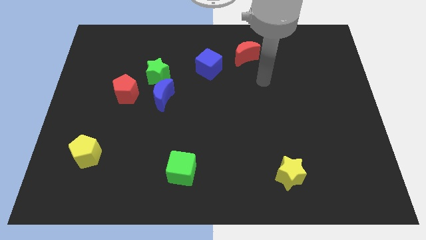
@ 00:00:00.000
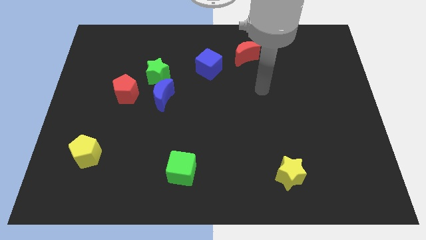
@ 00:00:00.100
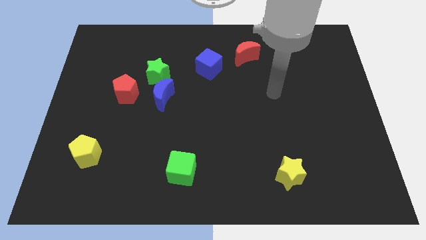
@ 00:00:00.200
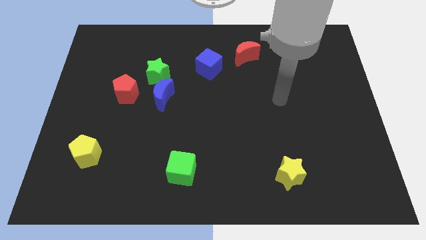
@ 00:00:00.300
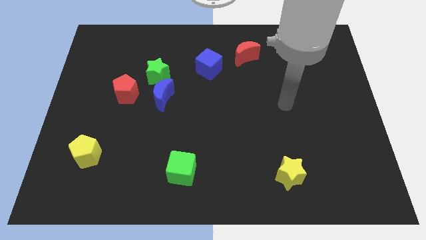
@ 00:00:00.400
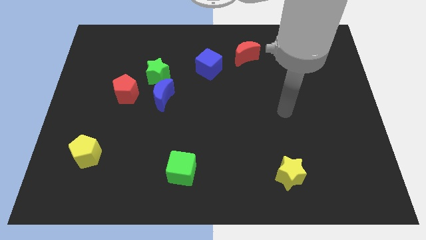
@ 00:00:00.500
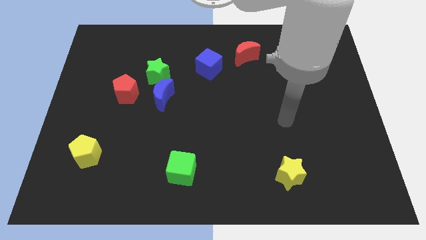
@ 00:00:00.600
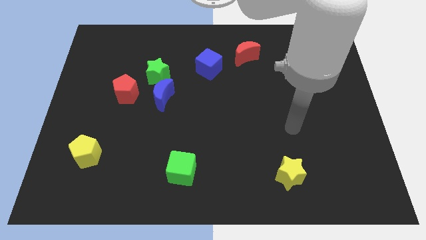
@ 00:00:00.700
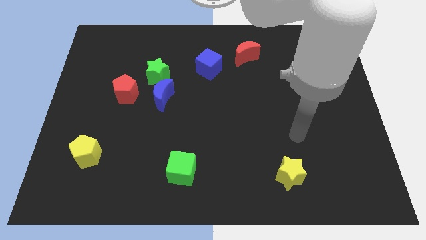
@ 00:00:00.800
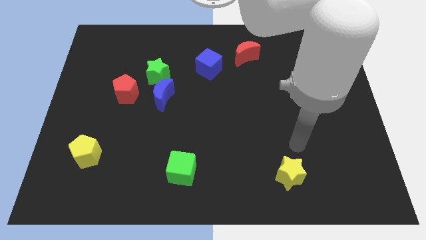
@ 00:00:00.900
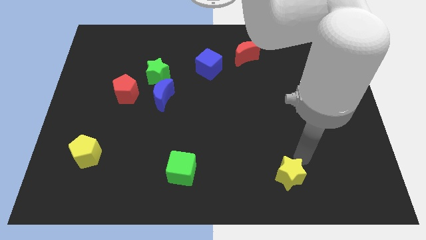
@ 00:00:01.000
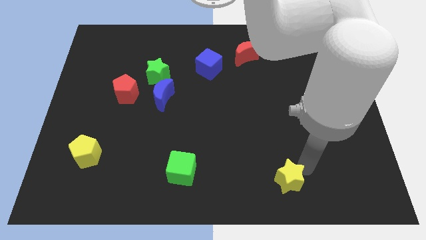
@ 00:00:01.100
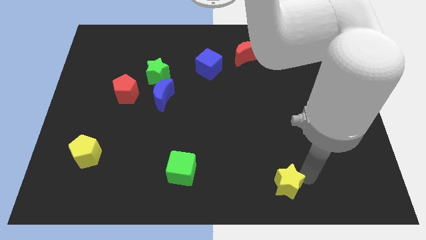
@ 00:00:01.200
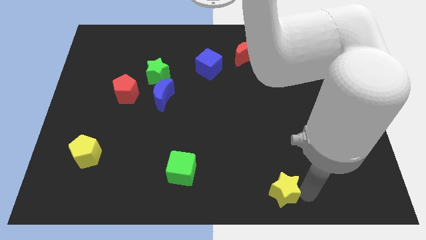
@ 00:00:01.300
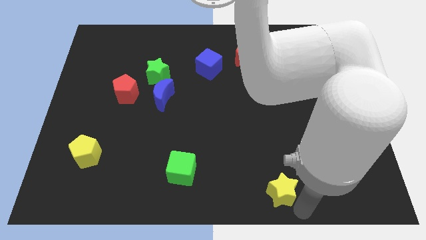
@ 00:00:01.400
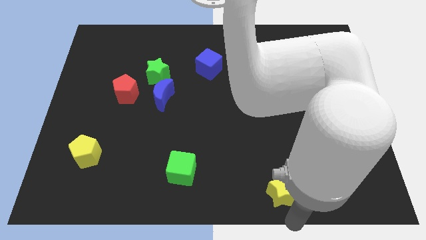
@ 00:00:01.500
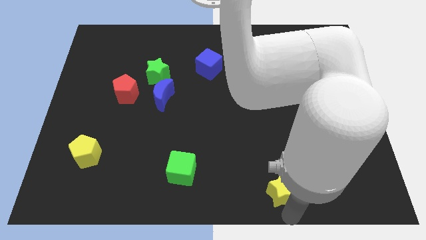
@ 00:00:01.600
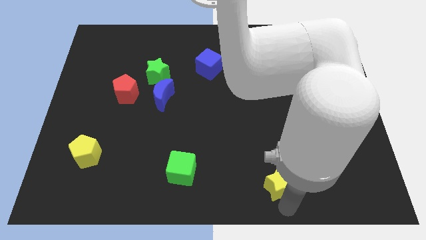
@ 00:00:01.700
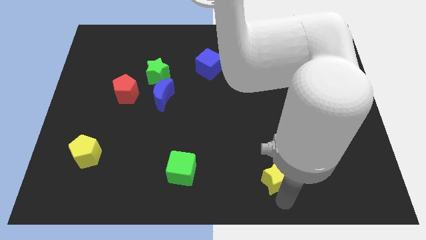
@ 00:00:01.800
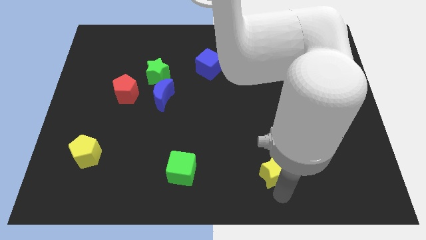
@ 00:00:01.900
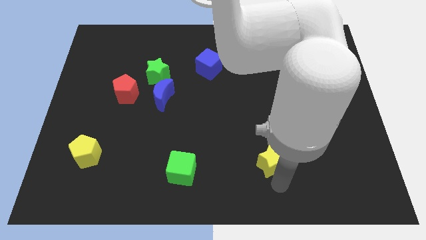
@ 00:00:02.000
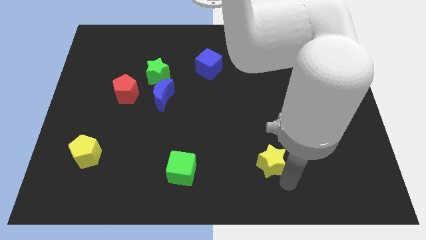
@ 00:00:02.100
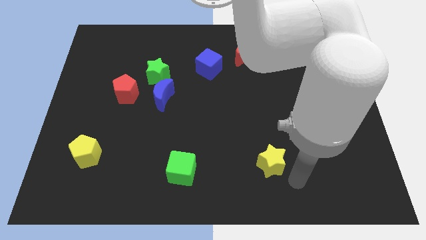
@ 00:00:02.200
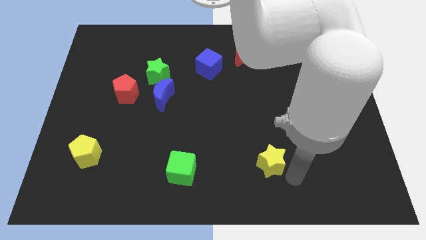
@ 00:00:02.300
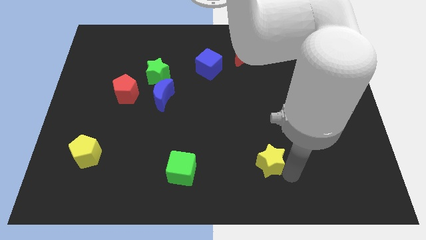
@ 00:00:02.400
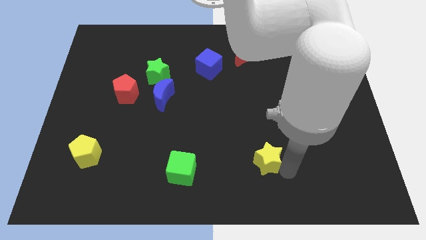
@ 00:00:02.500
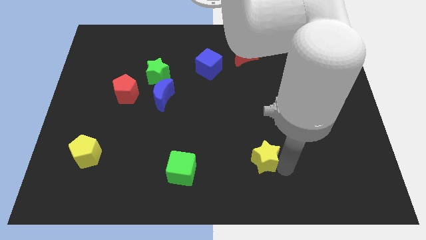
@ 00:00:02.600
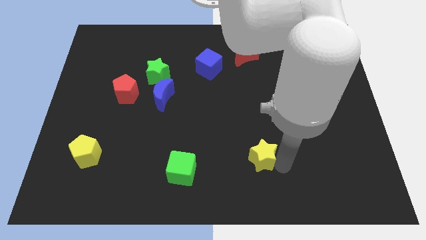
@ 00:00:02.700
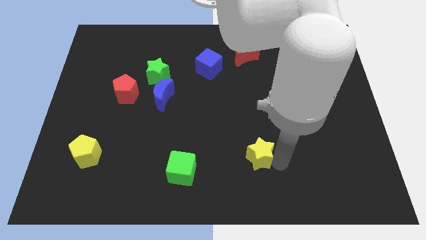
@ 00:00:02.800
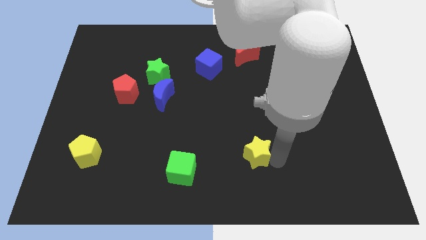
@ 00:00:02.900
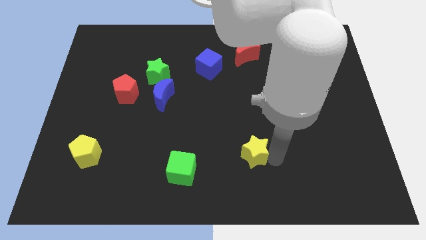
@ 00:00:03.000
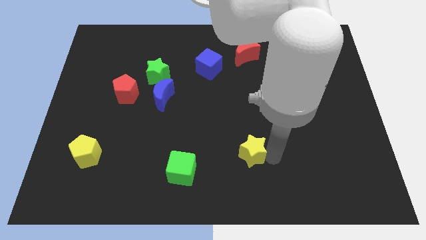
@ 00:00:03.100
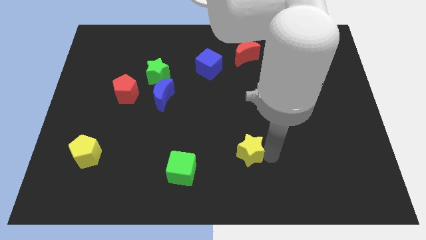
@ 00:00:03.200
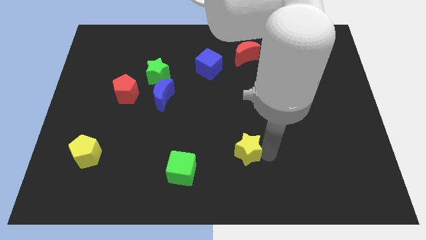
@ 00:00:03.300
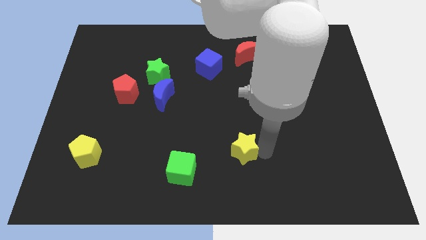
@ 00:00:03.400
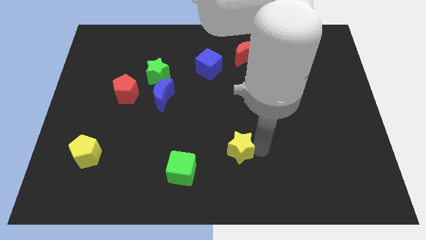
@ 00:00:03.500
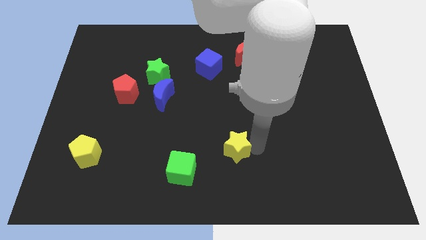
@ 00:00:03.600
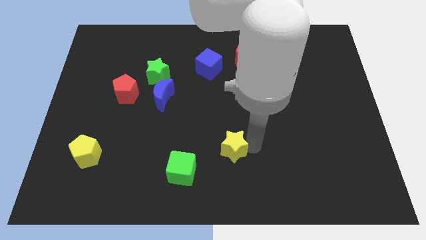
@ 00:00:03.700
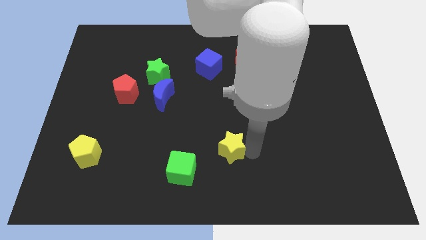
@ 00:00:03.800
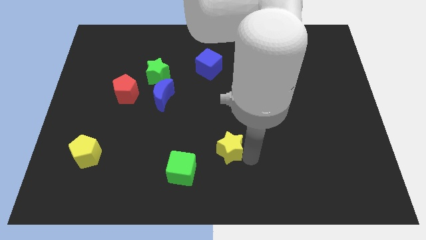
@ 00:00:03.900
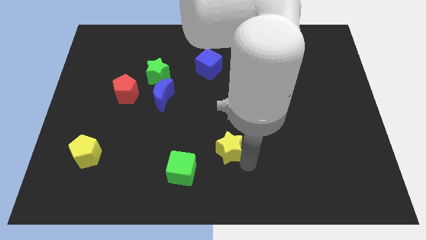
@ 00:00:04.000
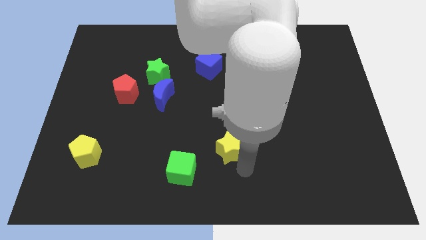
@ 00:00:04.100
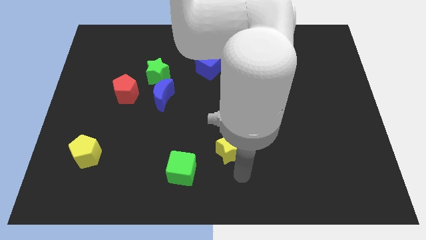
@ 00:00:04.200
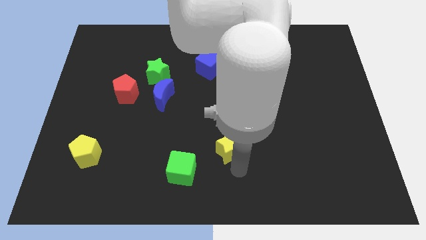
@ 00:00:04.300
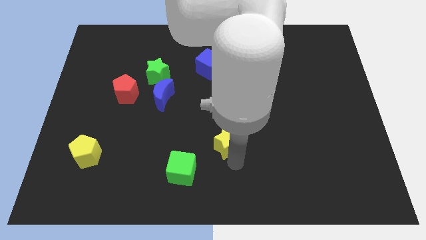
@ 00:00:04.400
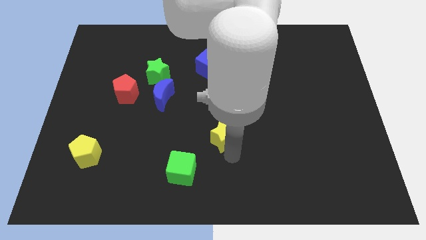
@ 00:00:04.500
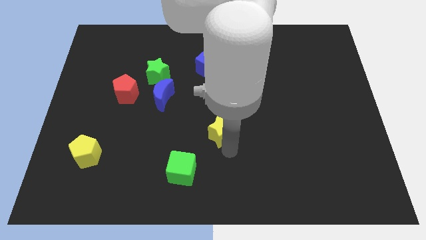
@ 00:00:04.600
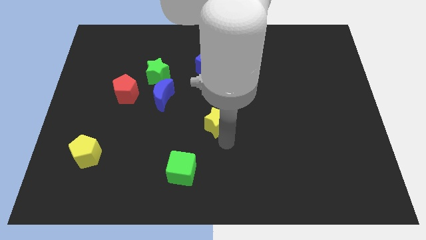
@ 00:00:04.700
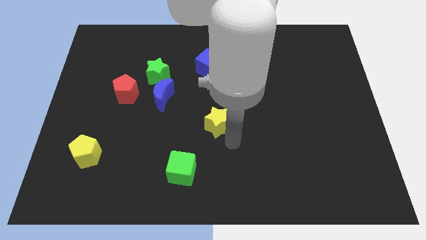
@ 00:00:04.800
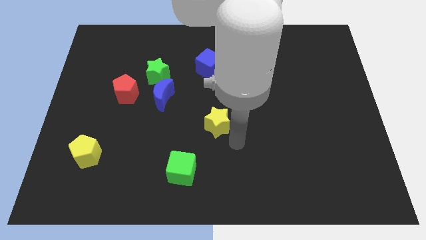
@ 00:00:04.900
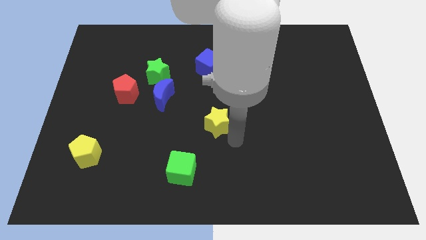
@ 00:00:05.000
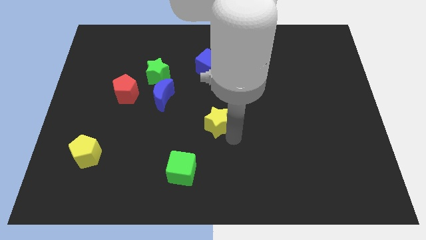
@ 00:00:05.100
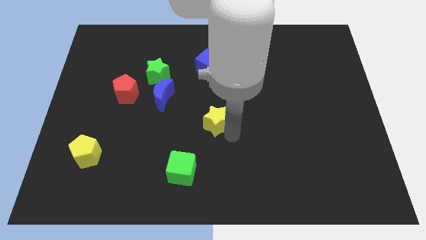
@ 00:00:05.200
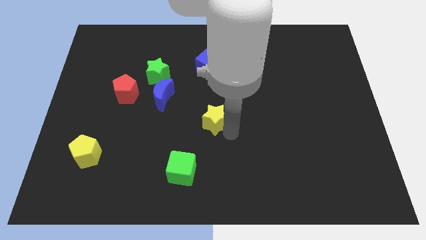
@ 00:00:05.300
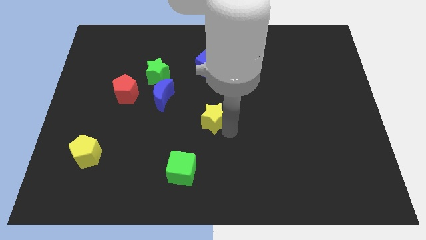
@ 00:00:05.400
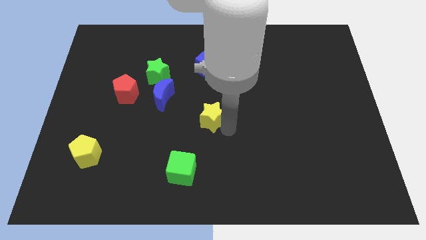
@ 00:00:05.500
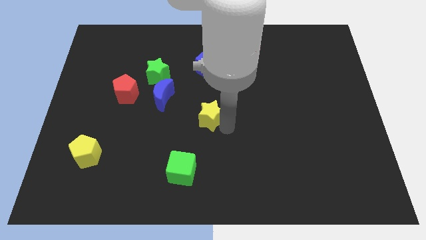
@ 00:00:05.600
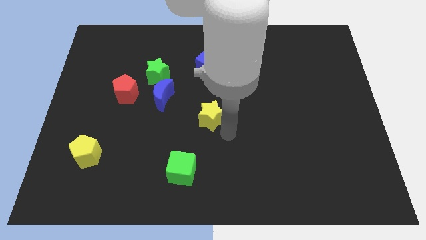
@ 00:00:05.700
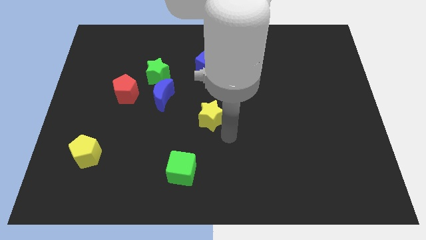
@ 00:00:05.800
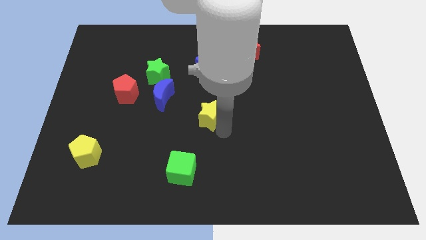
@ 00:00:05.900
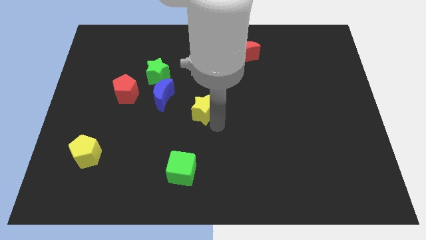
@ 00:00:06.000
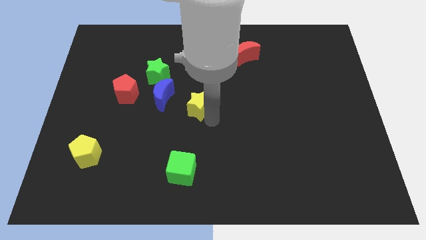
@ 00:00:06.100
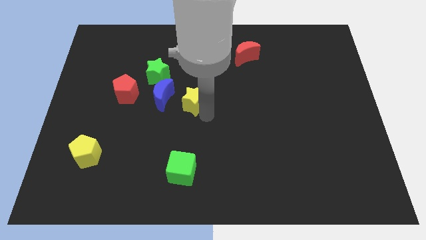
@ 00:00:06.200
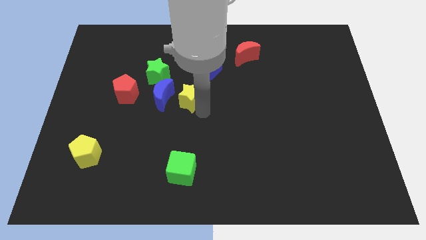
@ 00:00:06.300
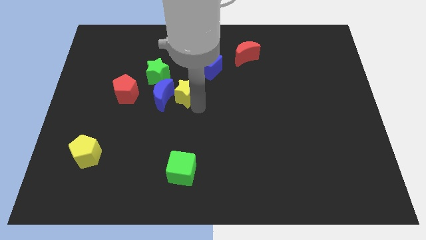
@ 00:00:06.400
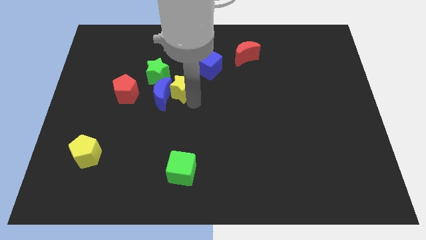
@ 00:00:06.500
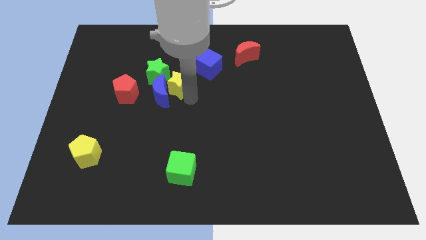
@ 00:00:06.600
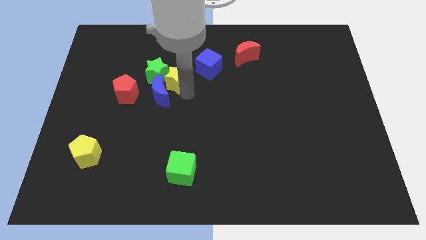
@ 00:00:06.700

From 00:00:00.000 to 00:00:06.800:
put the yellow star to the green star

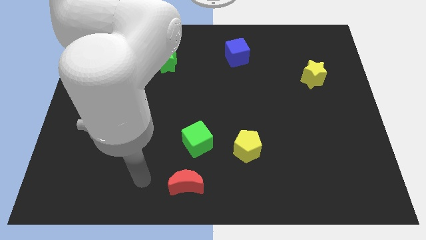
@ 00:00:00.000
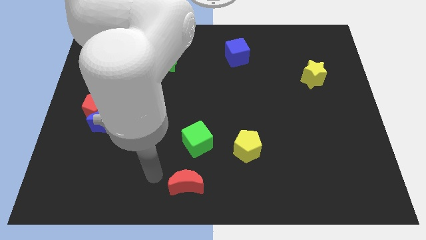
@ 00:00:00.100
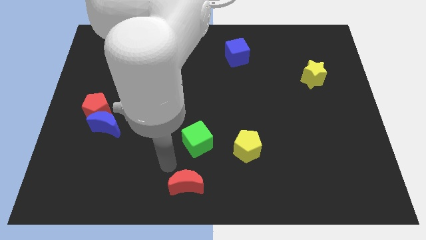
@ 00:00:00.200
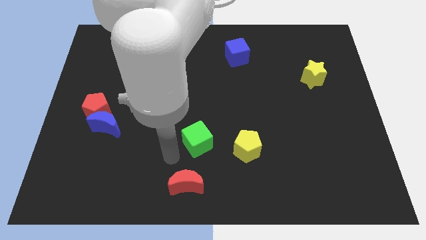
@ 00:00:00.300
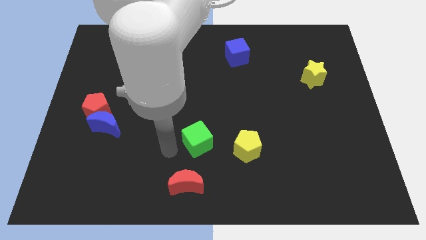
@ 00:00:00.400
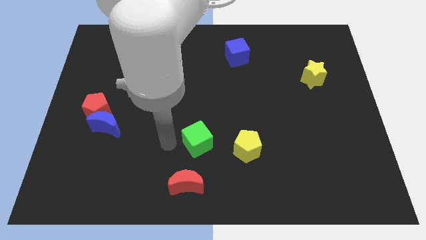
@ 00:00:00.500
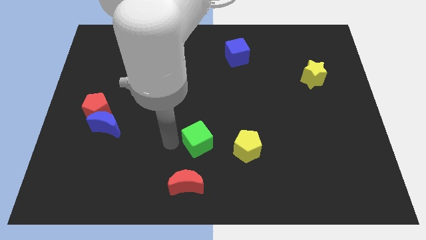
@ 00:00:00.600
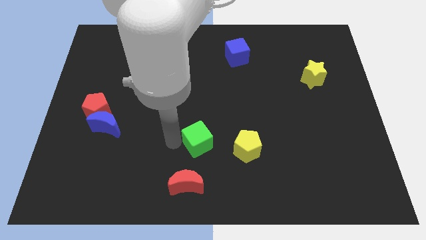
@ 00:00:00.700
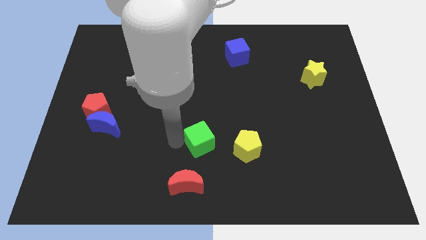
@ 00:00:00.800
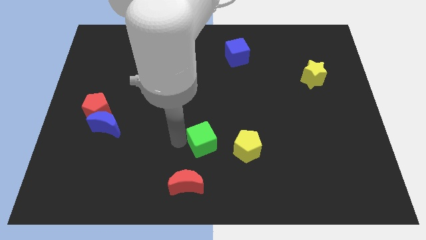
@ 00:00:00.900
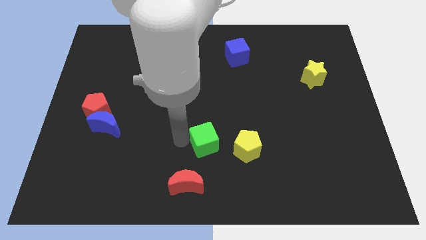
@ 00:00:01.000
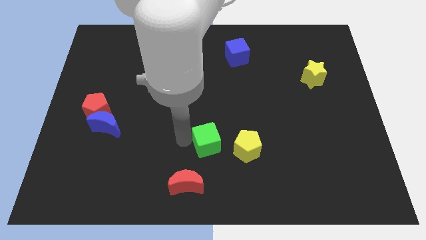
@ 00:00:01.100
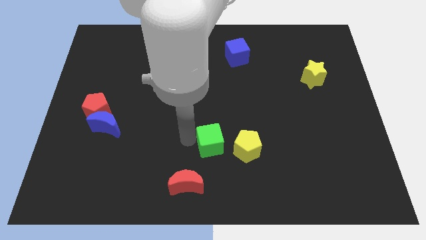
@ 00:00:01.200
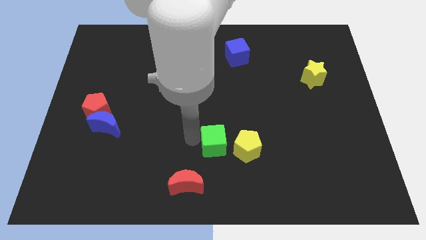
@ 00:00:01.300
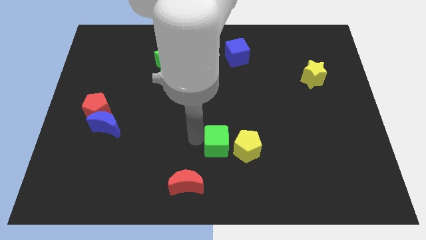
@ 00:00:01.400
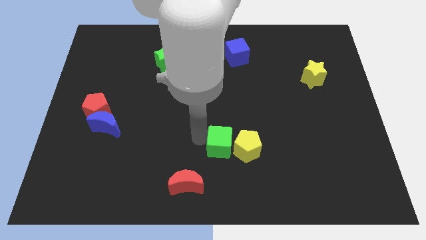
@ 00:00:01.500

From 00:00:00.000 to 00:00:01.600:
put the green cube close to the yellow pentagon
